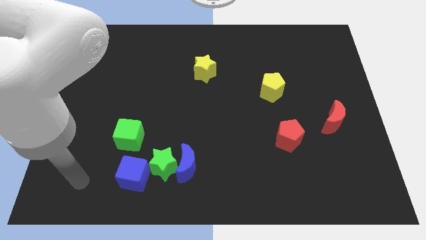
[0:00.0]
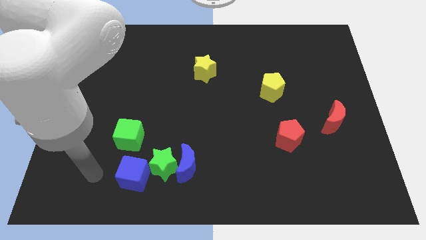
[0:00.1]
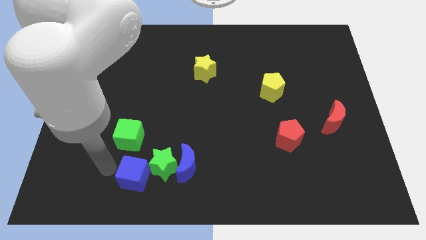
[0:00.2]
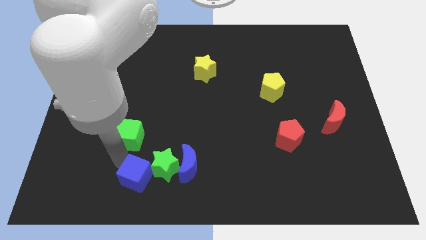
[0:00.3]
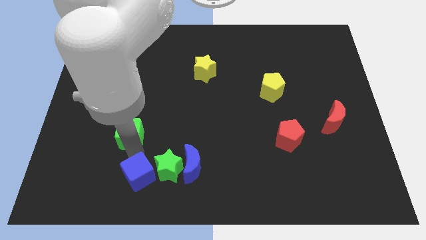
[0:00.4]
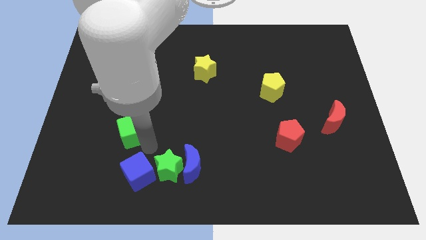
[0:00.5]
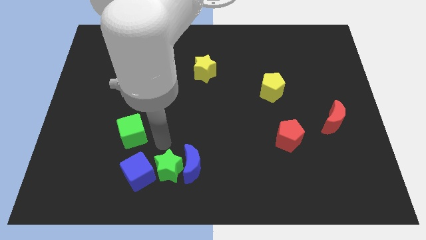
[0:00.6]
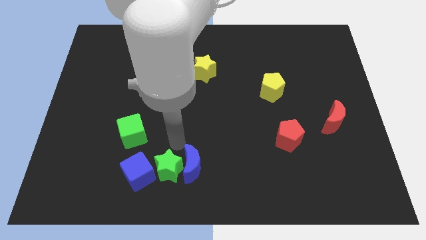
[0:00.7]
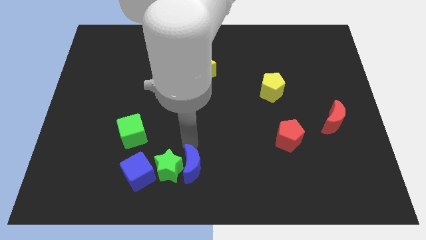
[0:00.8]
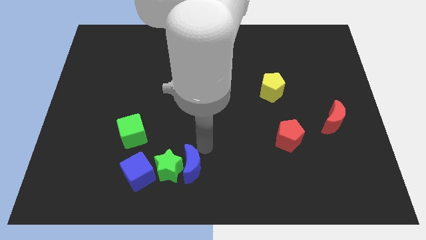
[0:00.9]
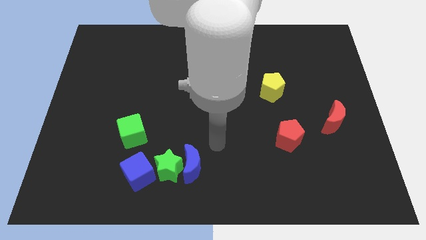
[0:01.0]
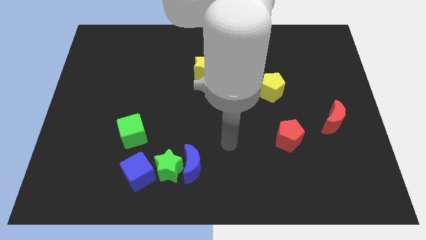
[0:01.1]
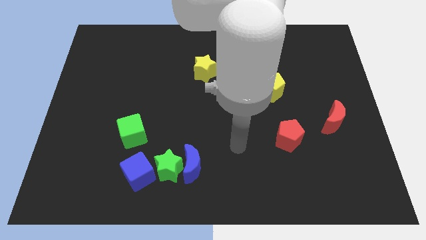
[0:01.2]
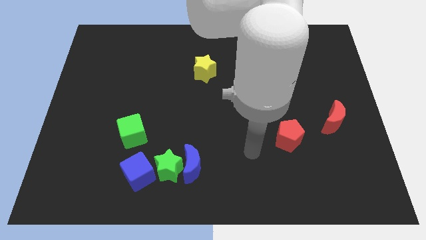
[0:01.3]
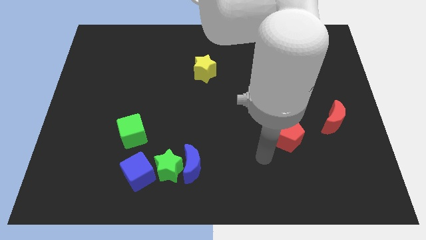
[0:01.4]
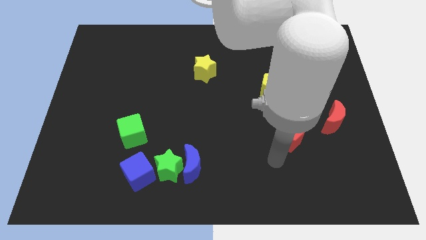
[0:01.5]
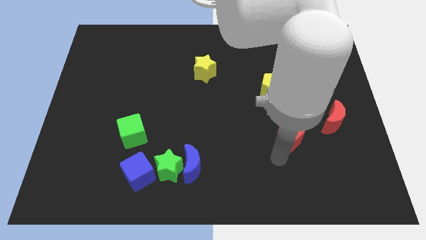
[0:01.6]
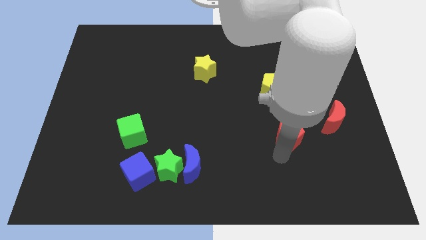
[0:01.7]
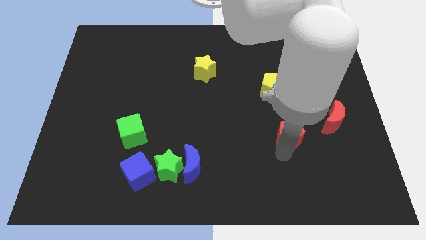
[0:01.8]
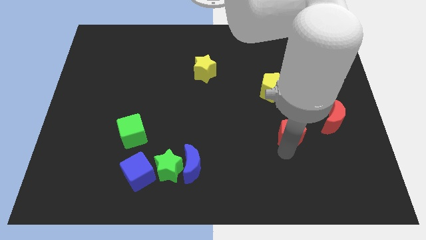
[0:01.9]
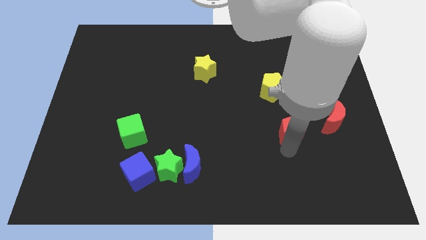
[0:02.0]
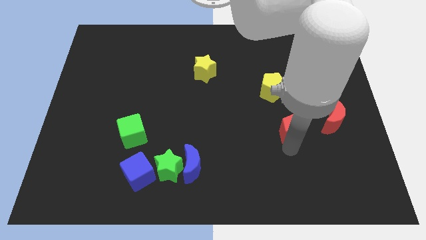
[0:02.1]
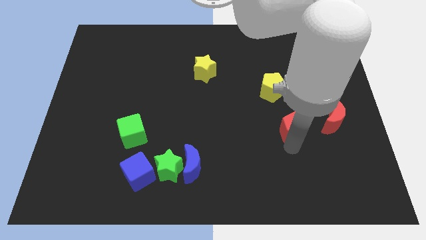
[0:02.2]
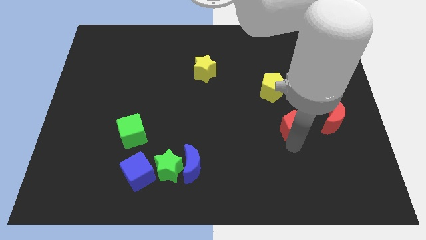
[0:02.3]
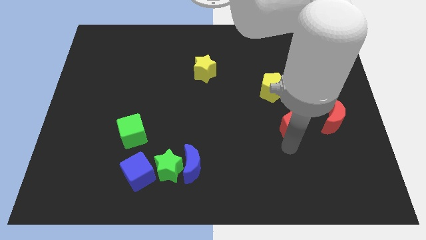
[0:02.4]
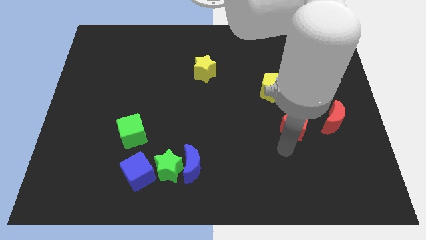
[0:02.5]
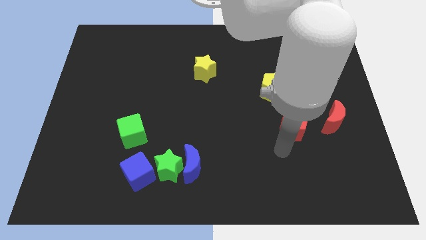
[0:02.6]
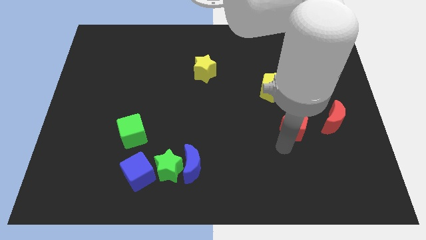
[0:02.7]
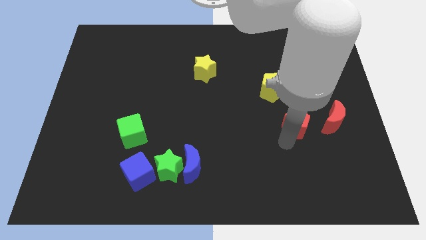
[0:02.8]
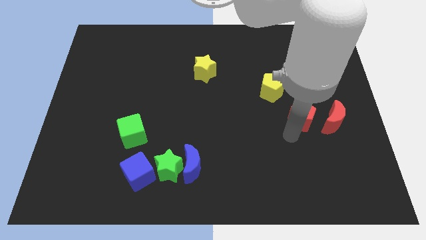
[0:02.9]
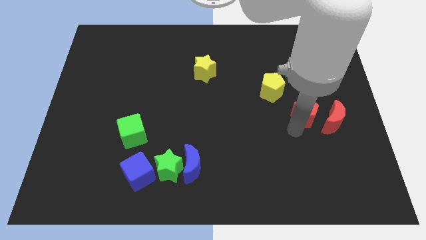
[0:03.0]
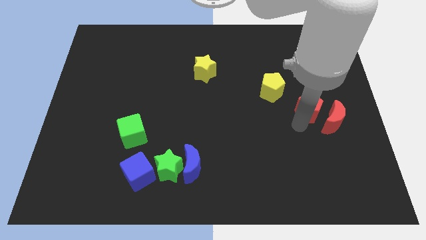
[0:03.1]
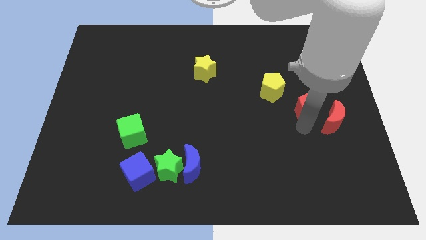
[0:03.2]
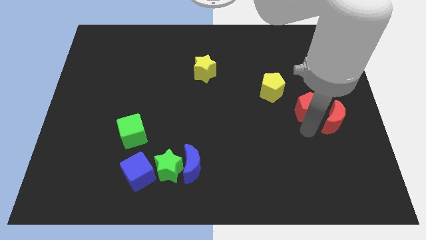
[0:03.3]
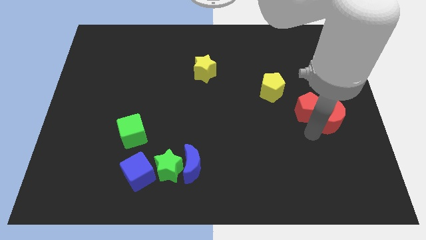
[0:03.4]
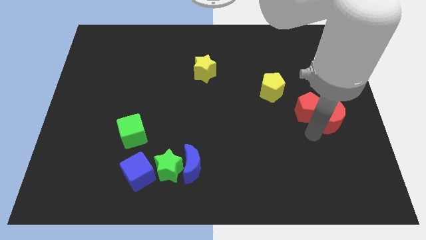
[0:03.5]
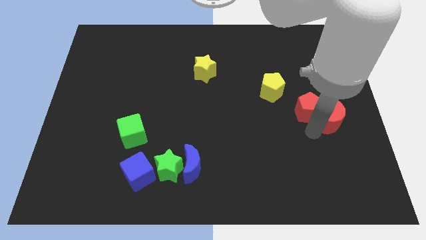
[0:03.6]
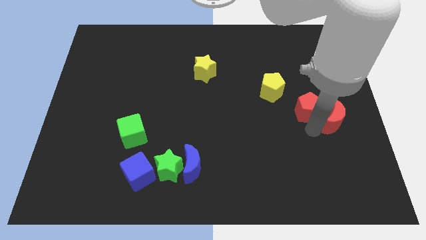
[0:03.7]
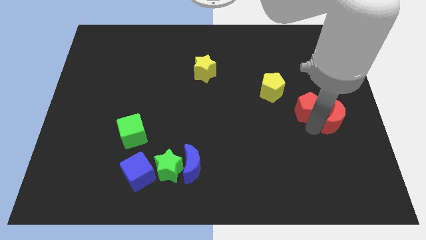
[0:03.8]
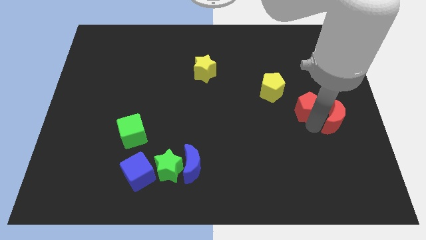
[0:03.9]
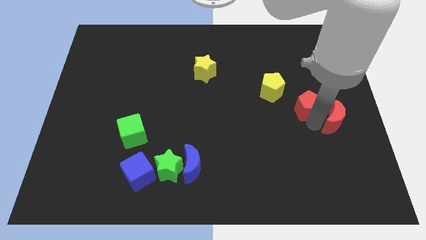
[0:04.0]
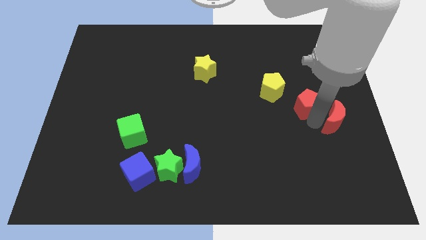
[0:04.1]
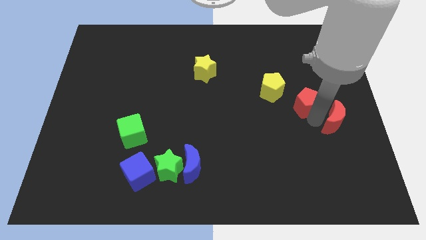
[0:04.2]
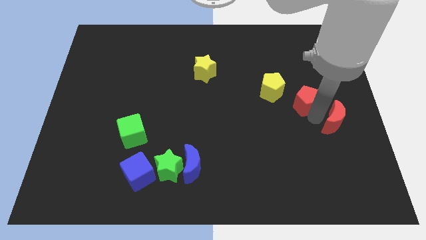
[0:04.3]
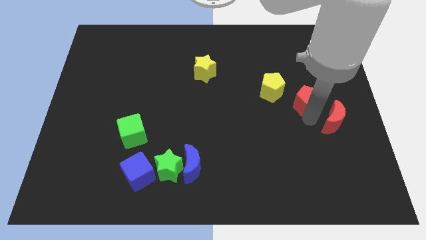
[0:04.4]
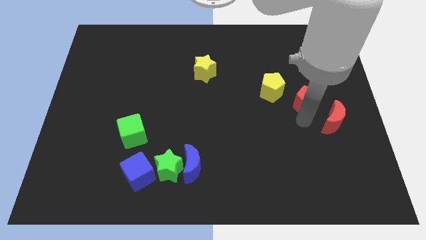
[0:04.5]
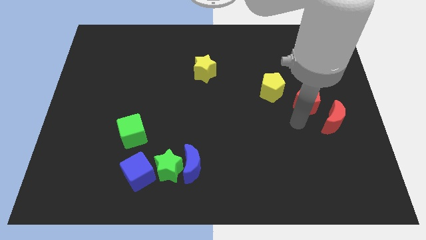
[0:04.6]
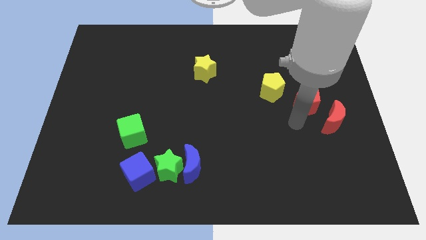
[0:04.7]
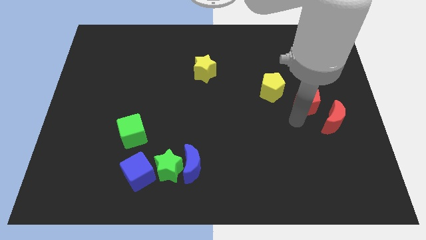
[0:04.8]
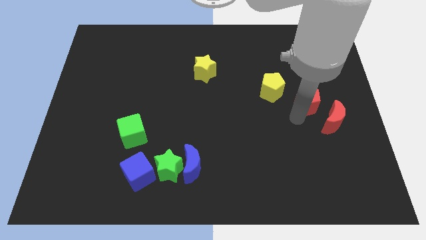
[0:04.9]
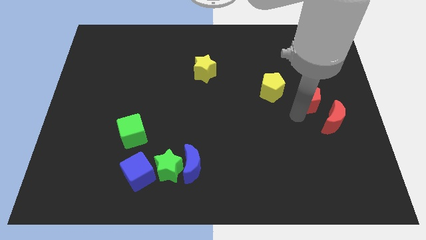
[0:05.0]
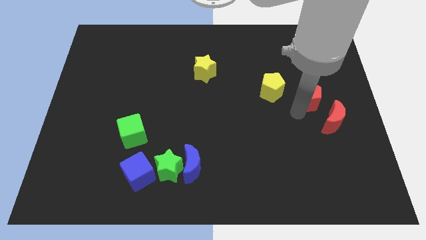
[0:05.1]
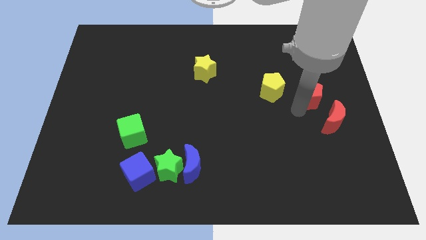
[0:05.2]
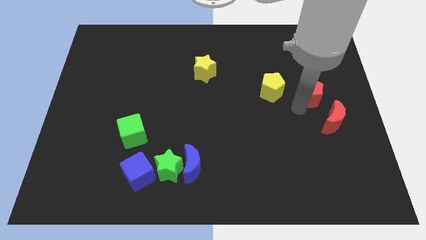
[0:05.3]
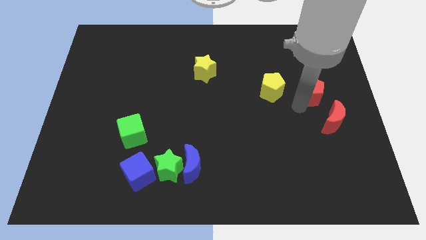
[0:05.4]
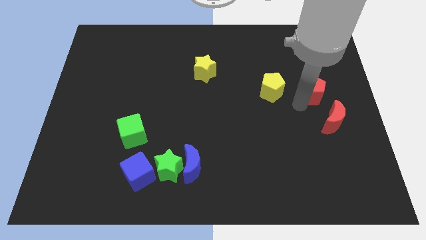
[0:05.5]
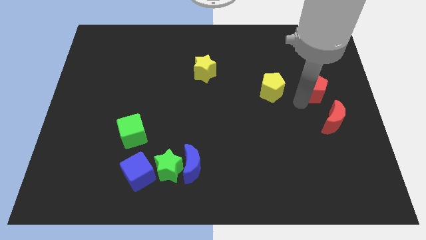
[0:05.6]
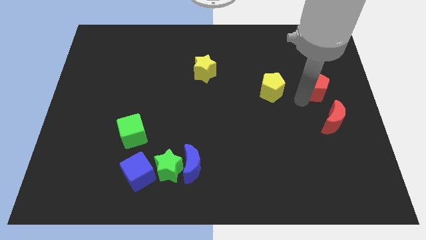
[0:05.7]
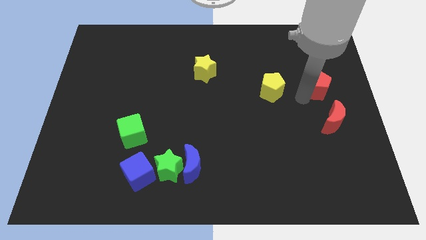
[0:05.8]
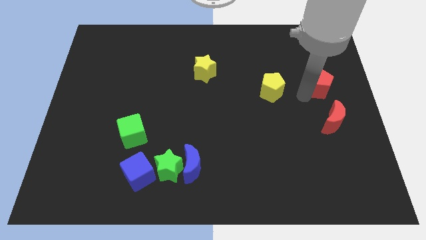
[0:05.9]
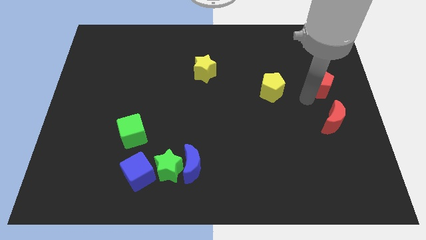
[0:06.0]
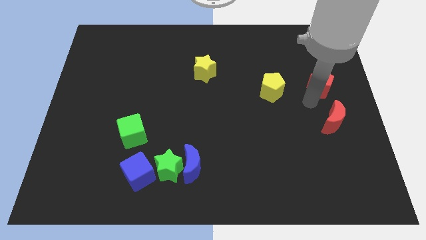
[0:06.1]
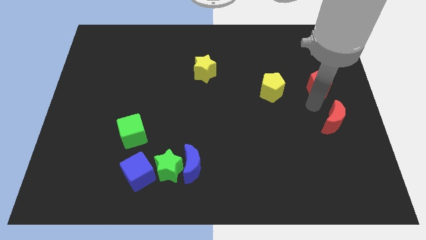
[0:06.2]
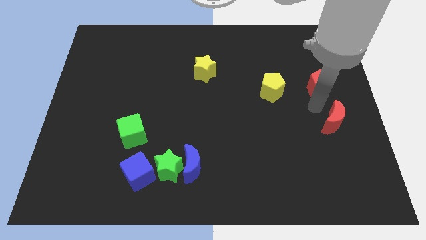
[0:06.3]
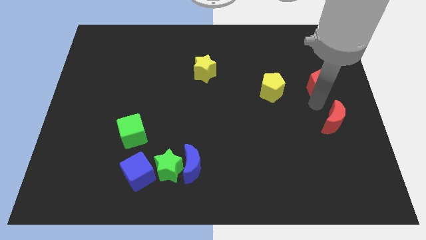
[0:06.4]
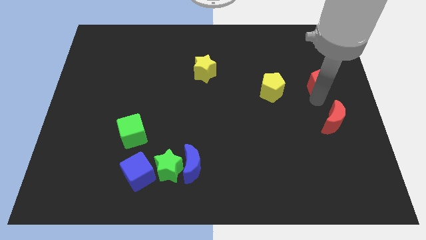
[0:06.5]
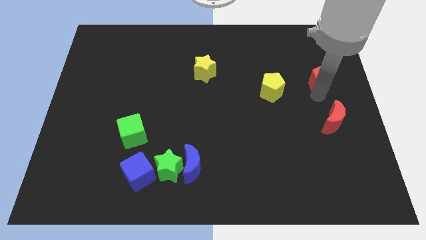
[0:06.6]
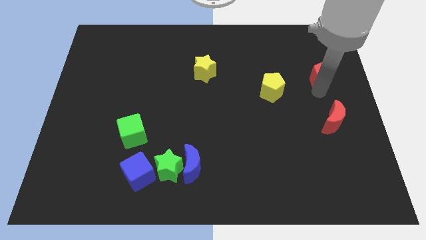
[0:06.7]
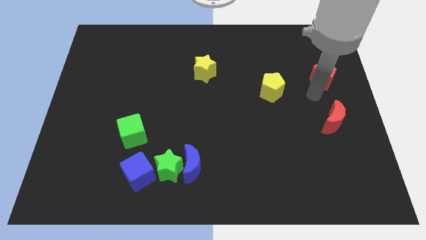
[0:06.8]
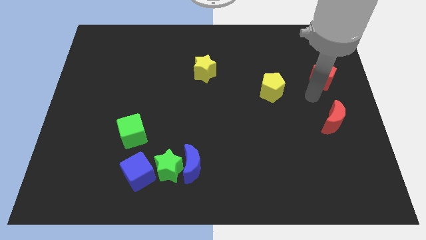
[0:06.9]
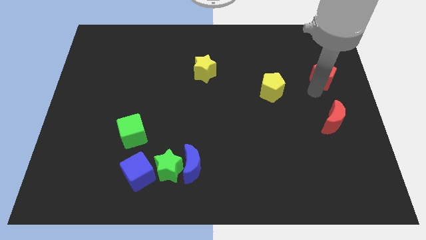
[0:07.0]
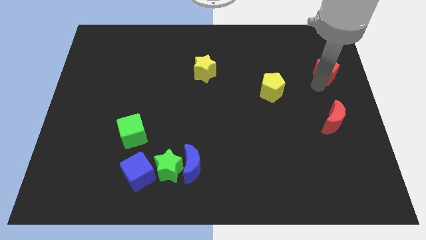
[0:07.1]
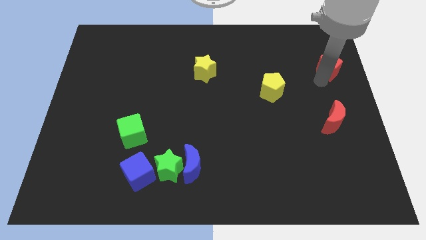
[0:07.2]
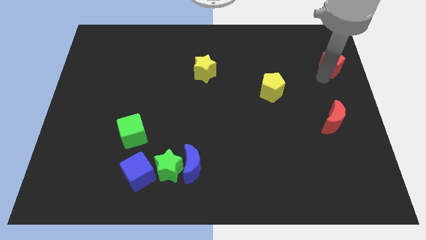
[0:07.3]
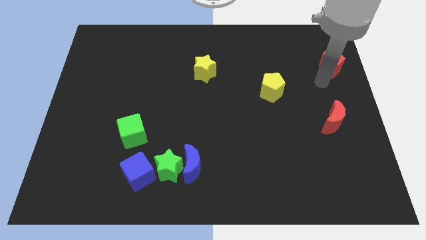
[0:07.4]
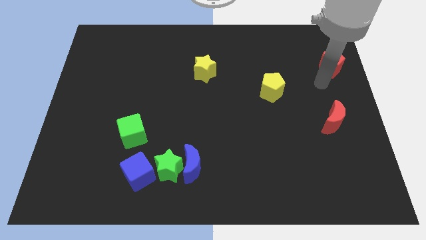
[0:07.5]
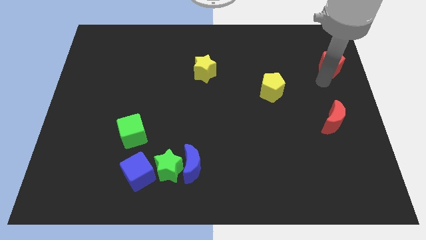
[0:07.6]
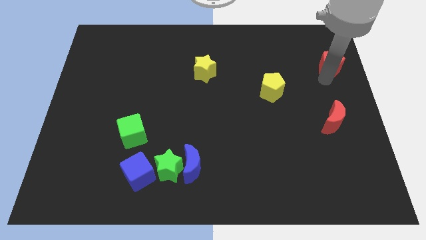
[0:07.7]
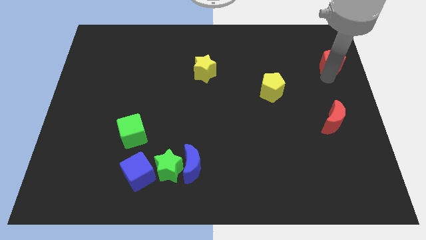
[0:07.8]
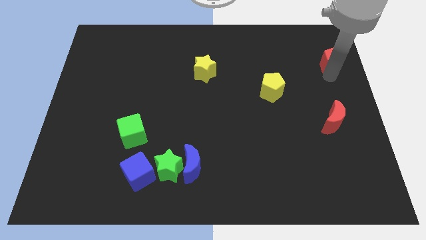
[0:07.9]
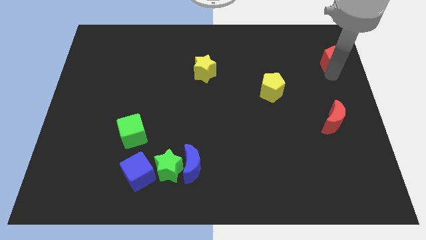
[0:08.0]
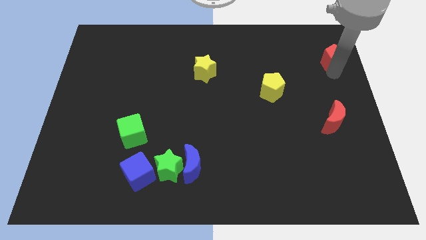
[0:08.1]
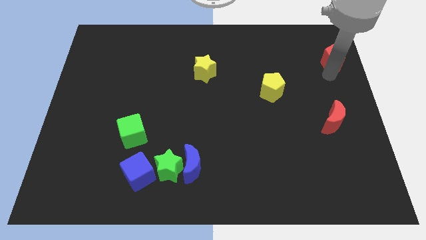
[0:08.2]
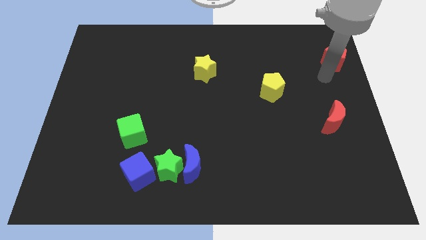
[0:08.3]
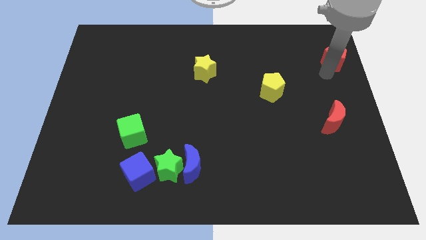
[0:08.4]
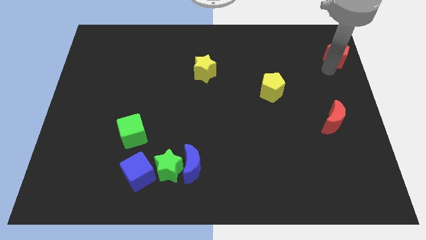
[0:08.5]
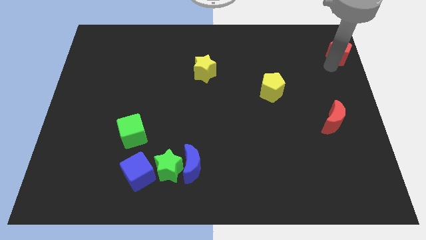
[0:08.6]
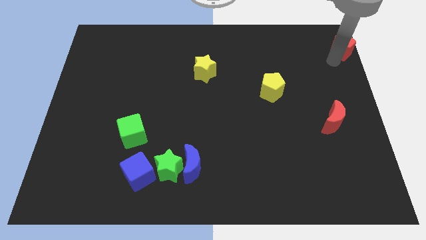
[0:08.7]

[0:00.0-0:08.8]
push the red pentagon to the top right
